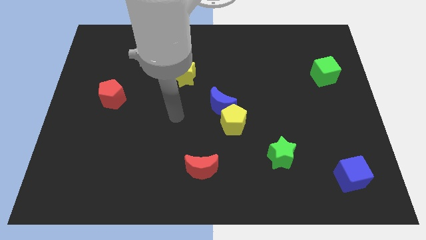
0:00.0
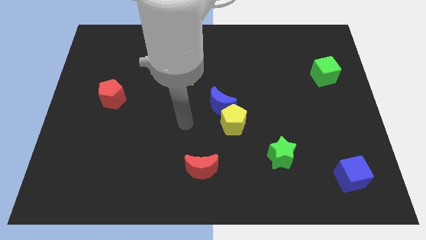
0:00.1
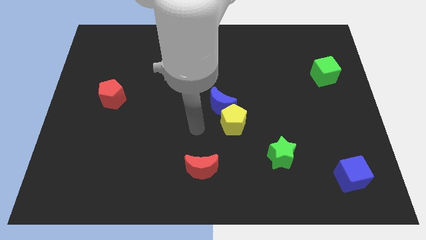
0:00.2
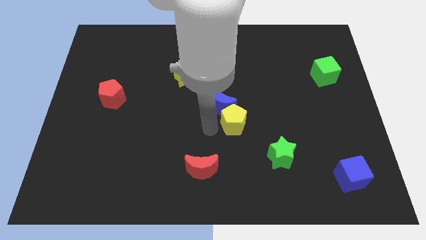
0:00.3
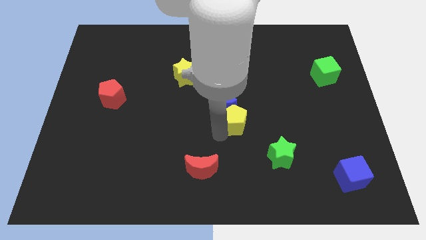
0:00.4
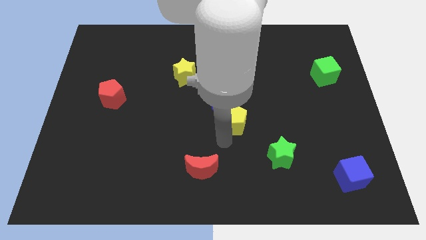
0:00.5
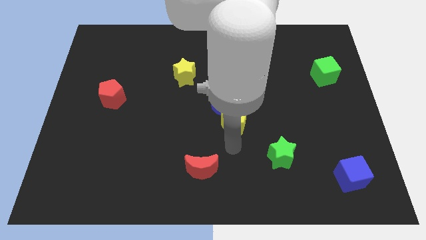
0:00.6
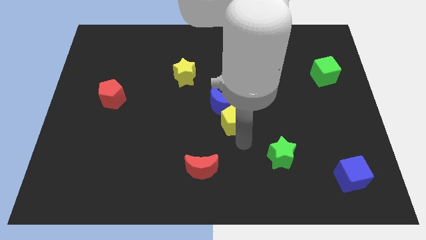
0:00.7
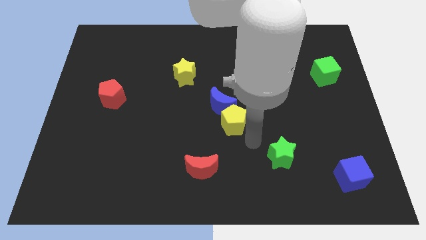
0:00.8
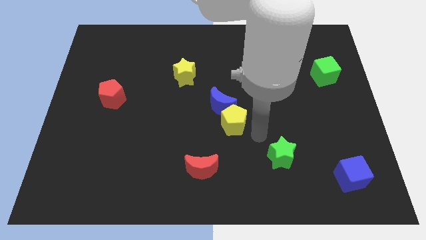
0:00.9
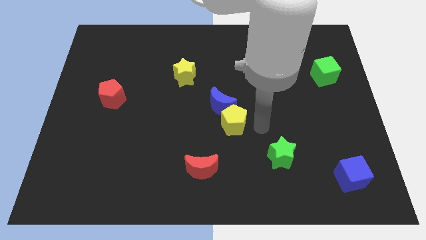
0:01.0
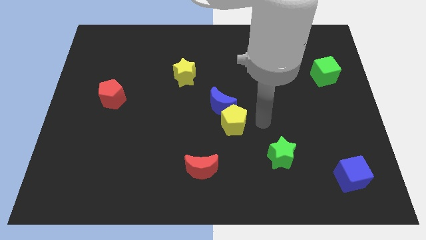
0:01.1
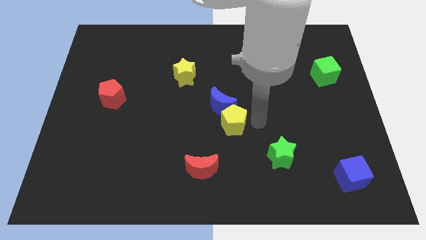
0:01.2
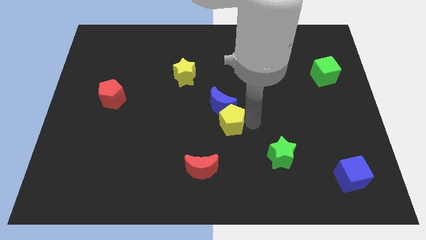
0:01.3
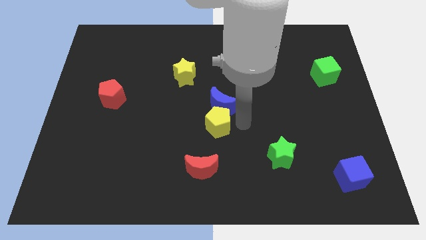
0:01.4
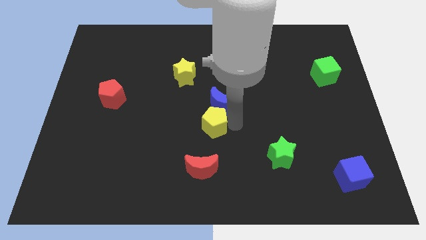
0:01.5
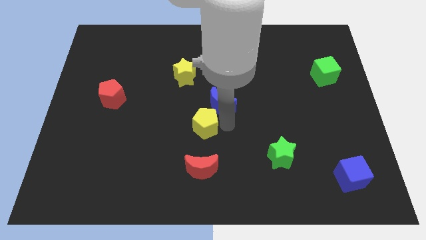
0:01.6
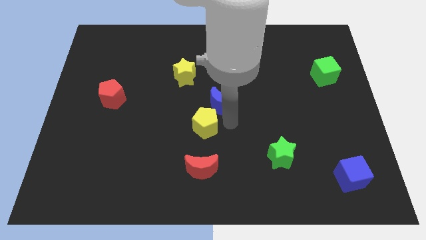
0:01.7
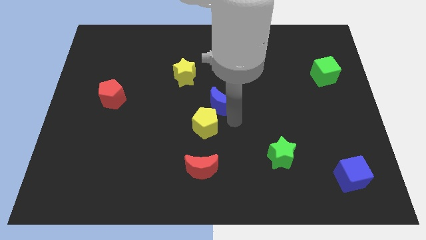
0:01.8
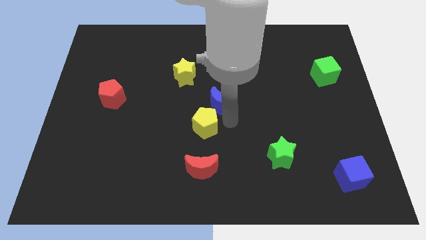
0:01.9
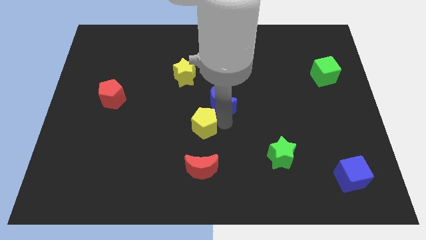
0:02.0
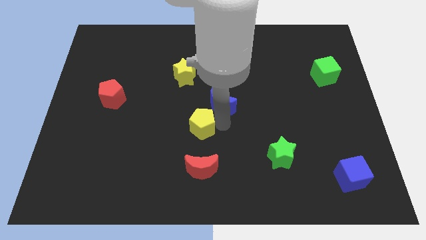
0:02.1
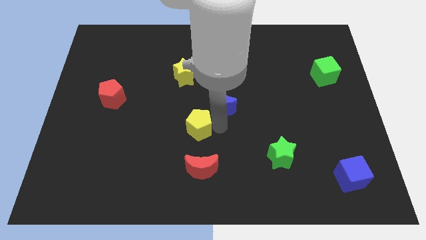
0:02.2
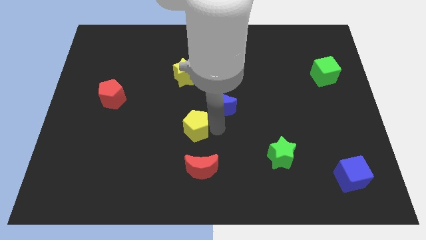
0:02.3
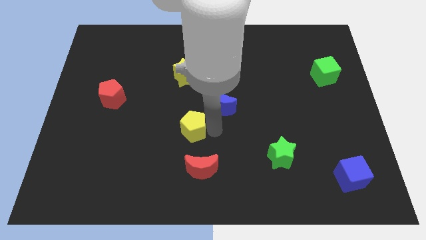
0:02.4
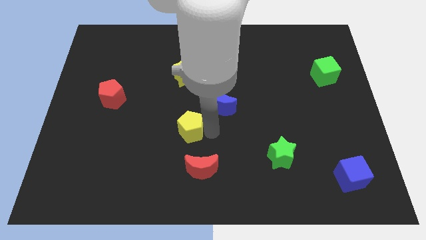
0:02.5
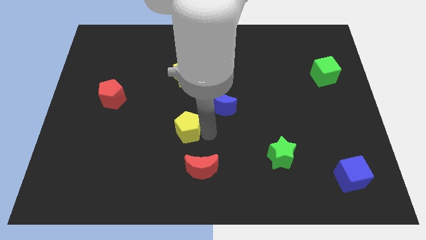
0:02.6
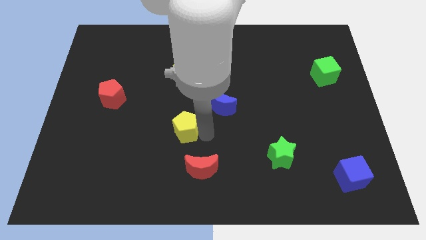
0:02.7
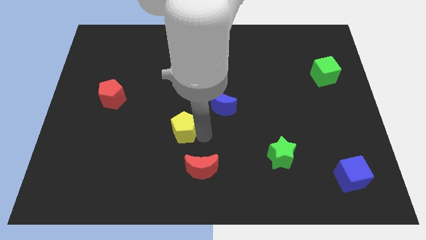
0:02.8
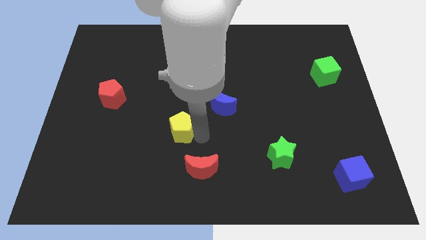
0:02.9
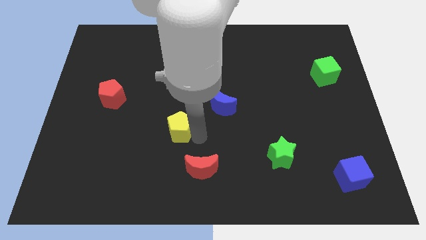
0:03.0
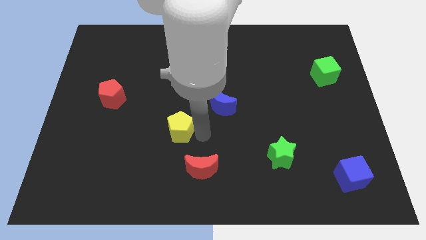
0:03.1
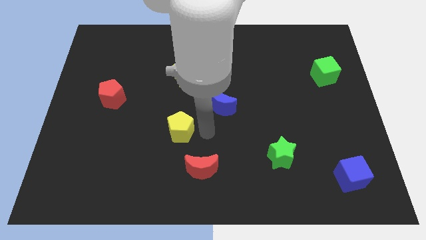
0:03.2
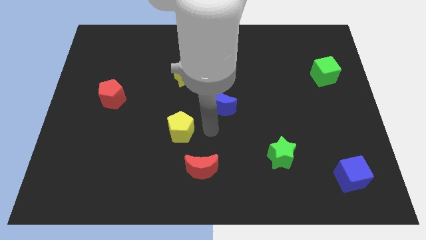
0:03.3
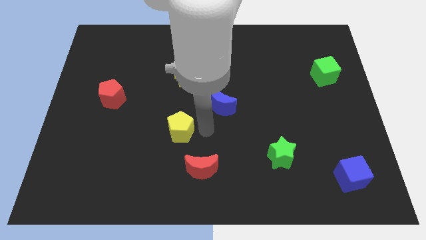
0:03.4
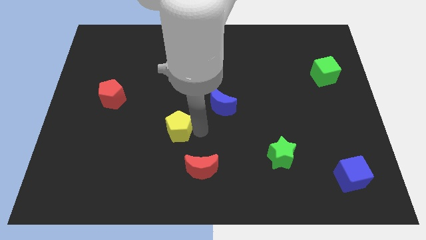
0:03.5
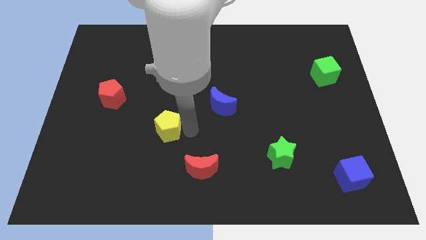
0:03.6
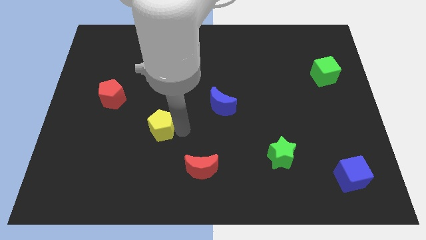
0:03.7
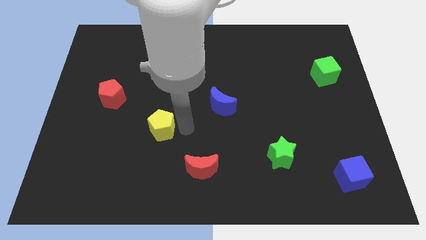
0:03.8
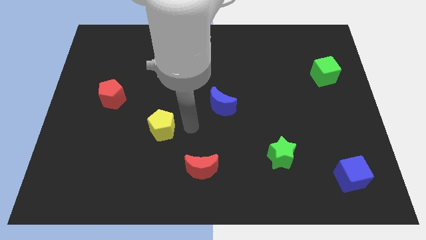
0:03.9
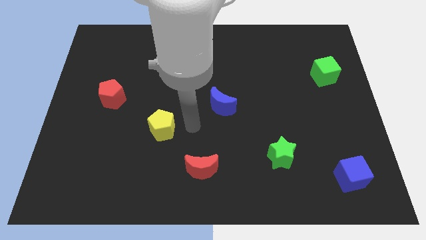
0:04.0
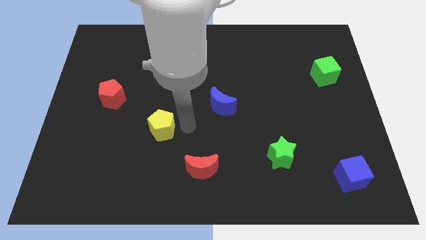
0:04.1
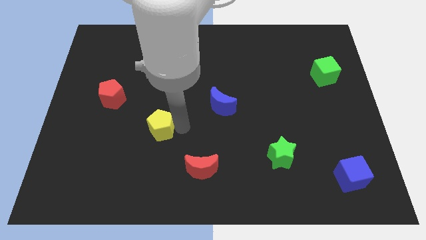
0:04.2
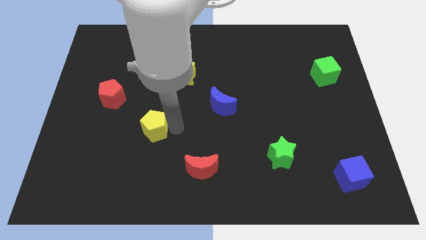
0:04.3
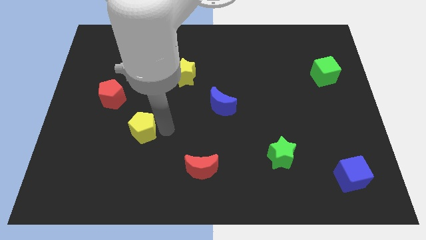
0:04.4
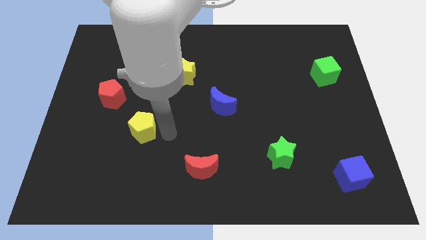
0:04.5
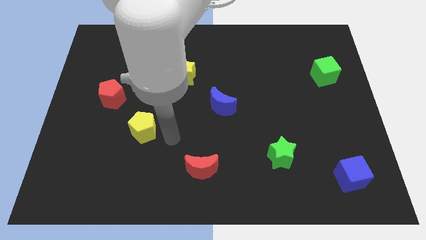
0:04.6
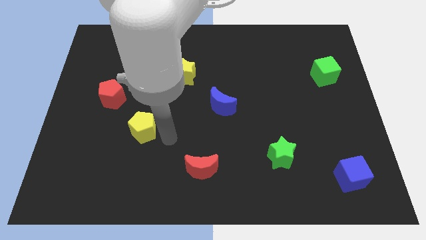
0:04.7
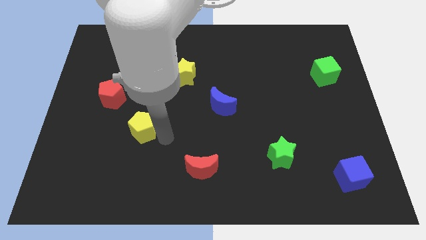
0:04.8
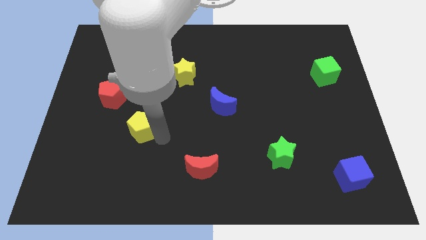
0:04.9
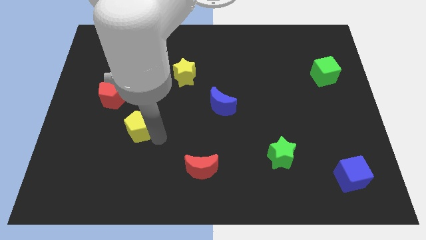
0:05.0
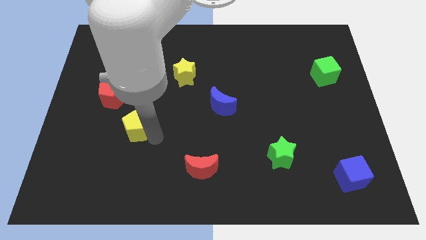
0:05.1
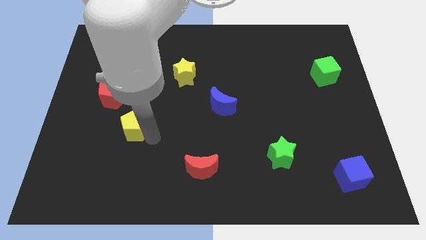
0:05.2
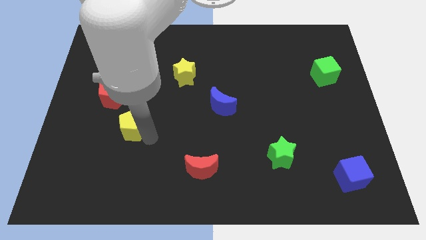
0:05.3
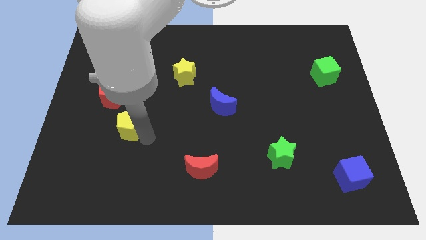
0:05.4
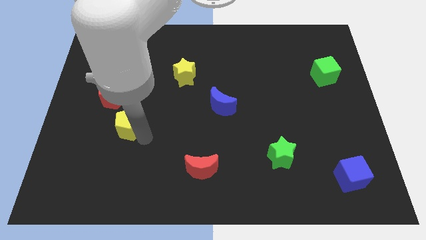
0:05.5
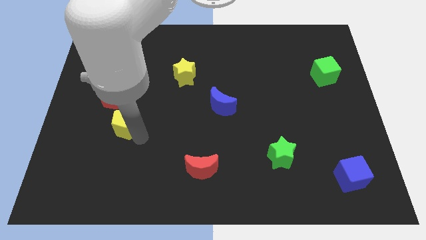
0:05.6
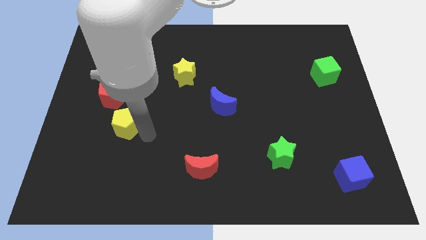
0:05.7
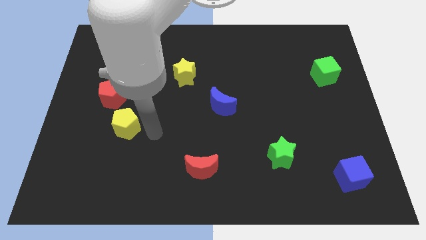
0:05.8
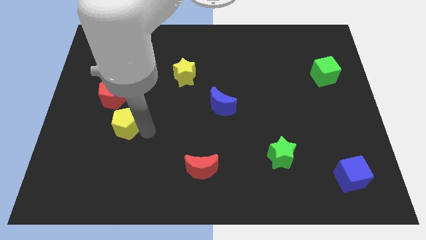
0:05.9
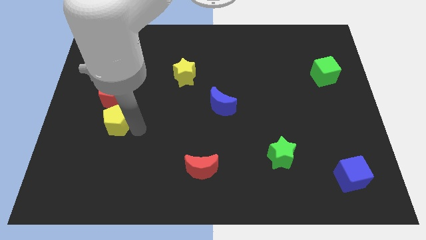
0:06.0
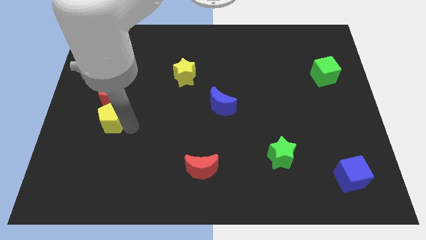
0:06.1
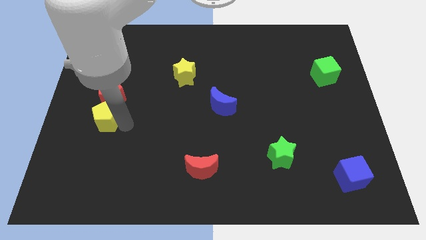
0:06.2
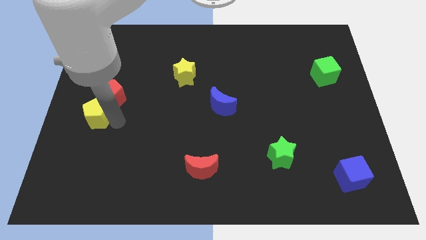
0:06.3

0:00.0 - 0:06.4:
put the yellow pentagon to the left side of the board
